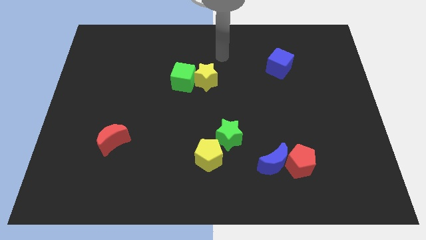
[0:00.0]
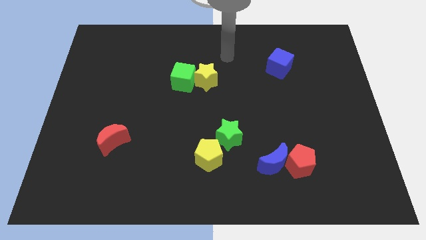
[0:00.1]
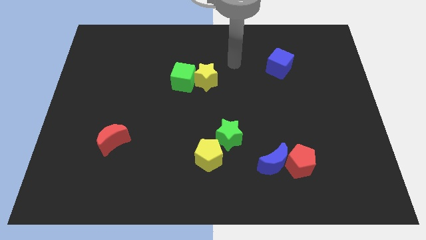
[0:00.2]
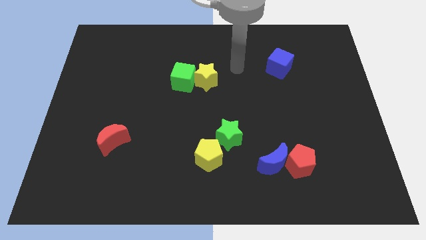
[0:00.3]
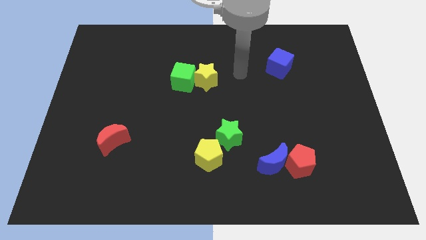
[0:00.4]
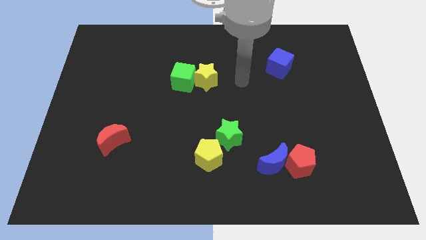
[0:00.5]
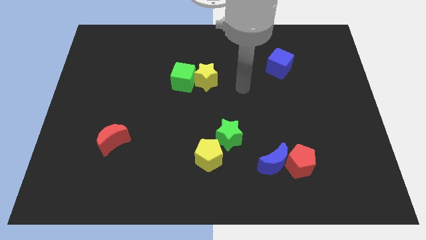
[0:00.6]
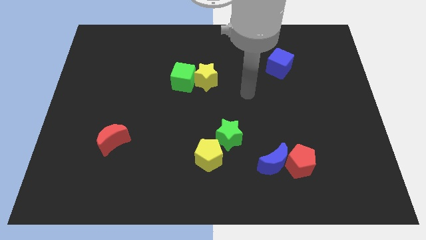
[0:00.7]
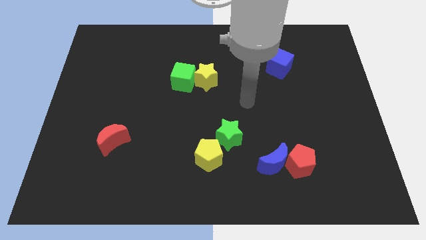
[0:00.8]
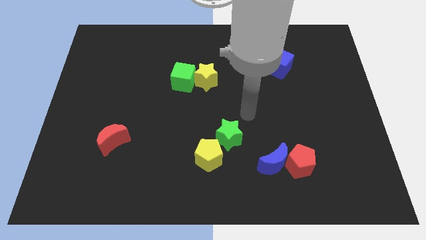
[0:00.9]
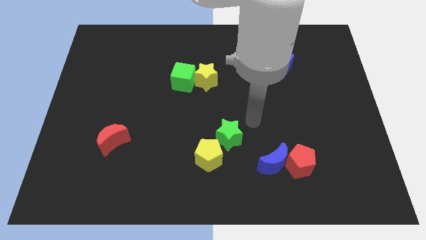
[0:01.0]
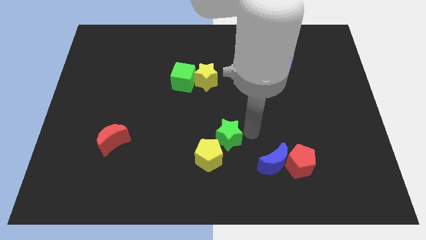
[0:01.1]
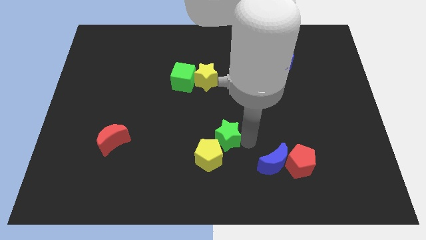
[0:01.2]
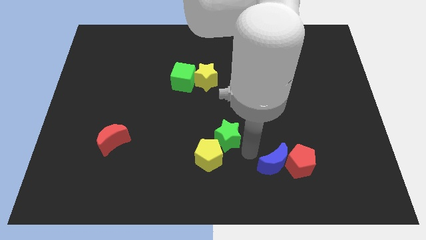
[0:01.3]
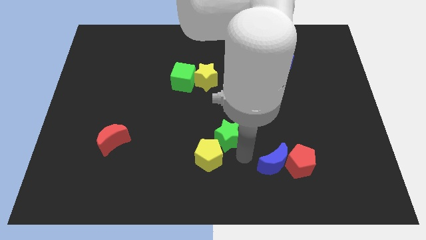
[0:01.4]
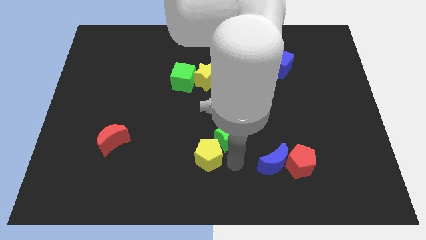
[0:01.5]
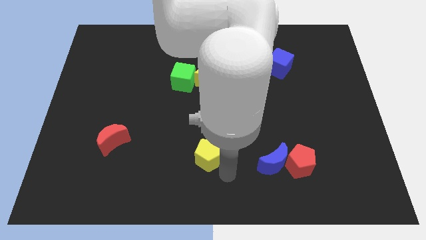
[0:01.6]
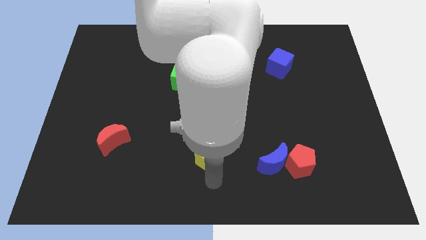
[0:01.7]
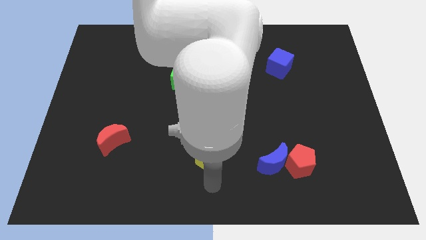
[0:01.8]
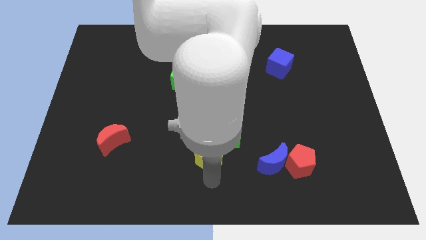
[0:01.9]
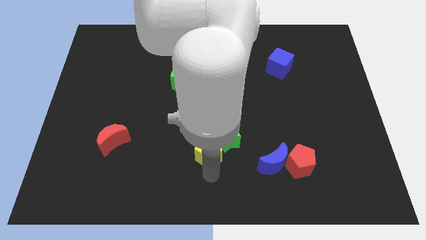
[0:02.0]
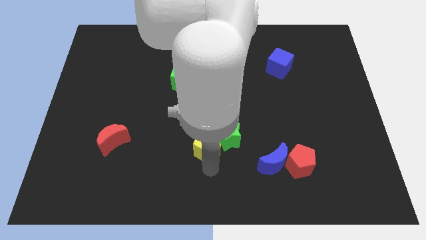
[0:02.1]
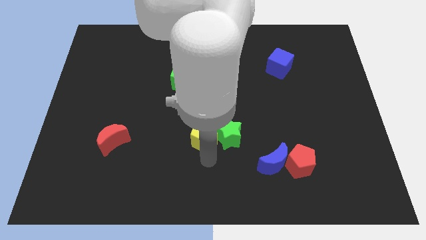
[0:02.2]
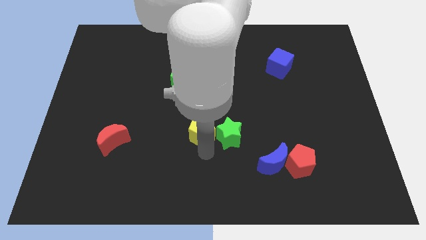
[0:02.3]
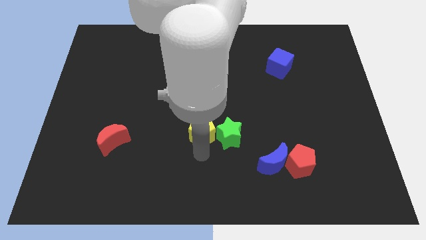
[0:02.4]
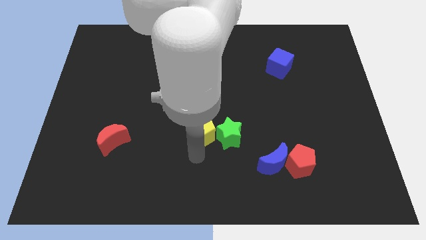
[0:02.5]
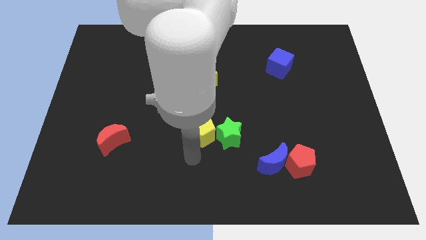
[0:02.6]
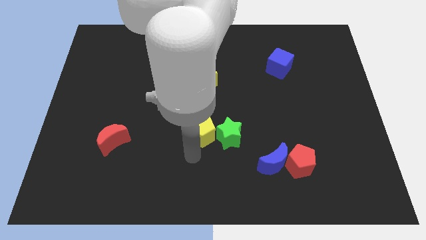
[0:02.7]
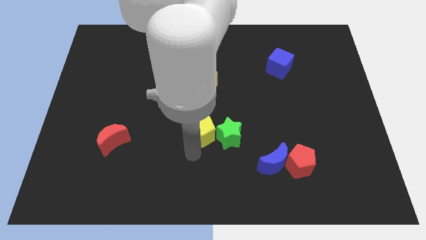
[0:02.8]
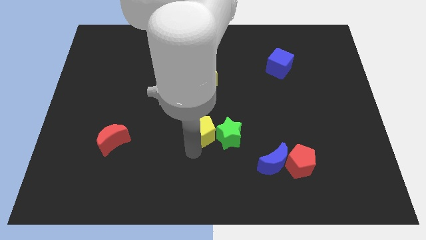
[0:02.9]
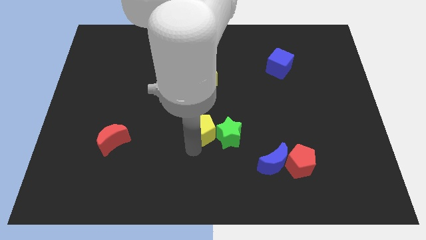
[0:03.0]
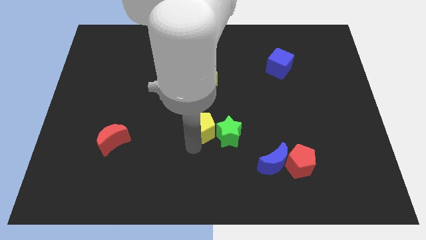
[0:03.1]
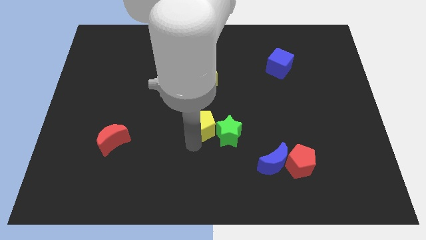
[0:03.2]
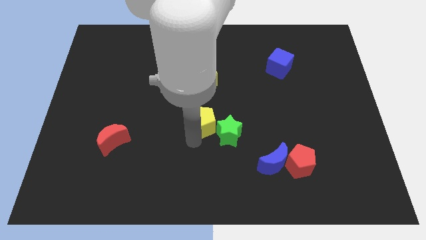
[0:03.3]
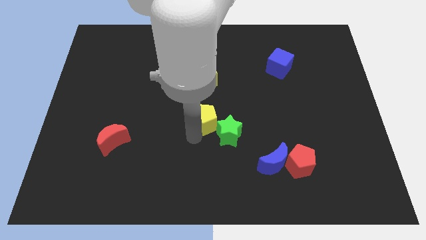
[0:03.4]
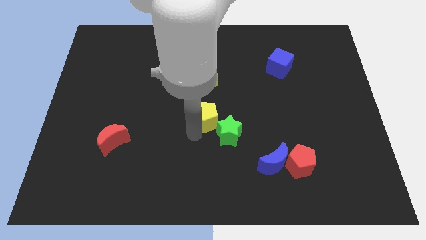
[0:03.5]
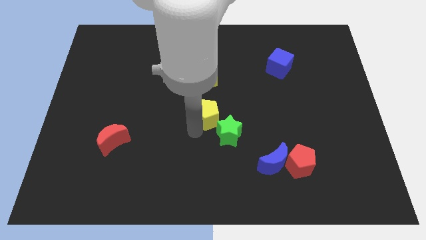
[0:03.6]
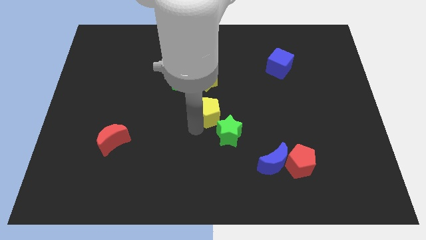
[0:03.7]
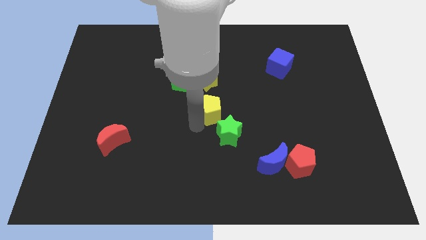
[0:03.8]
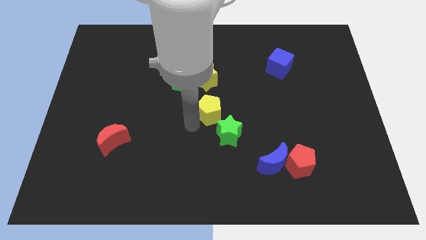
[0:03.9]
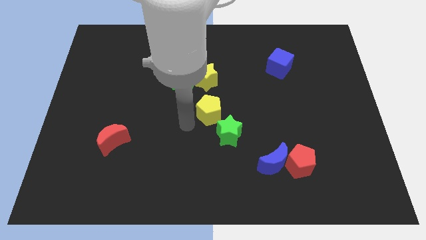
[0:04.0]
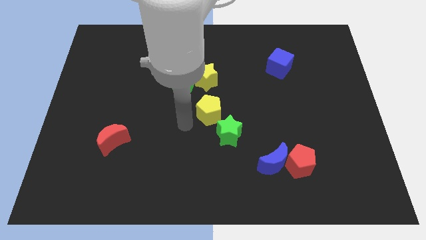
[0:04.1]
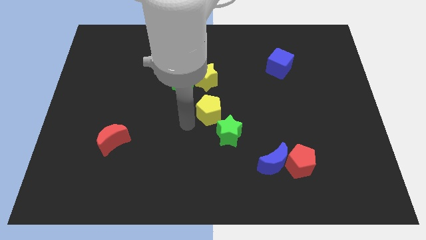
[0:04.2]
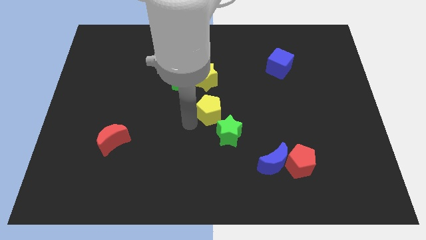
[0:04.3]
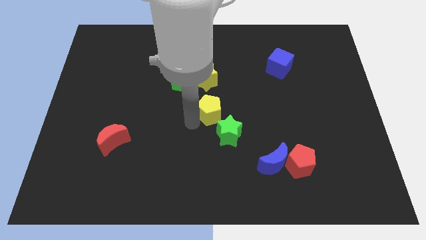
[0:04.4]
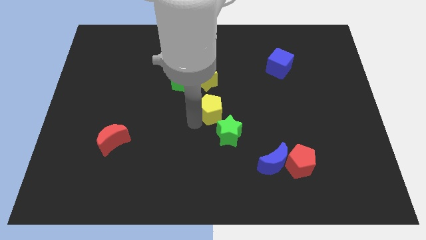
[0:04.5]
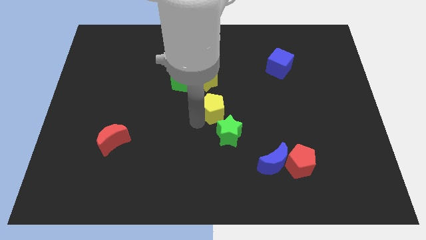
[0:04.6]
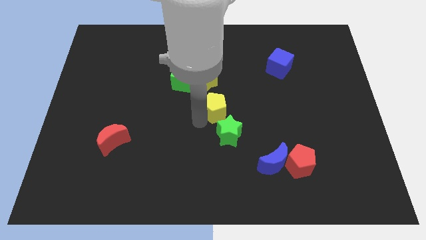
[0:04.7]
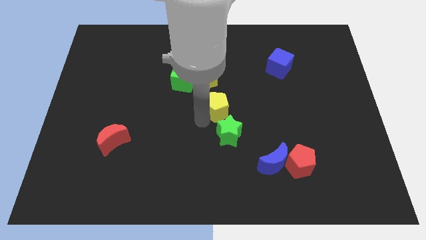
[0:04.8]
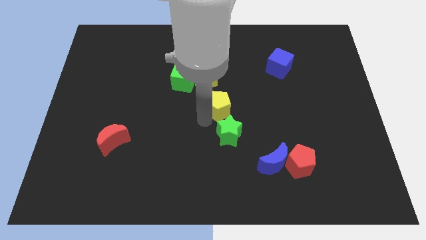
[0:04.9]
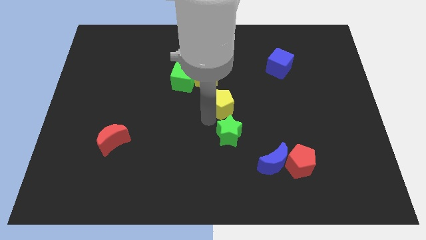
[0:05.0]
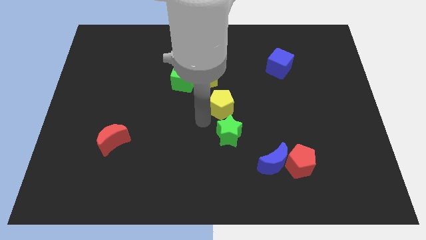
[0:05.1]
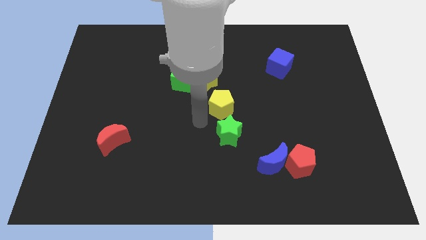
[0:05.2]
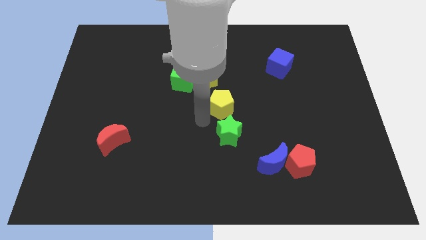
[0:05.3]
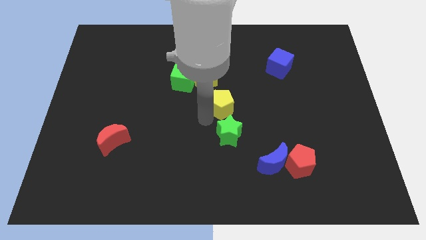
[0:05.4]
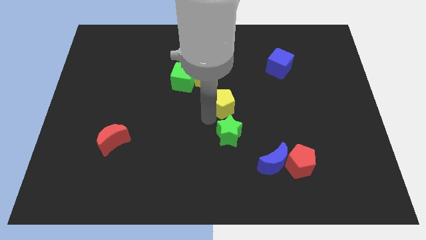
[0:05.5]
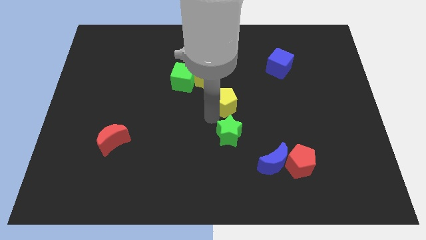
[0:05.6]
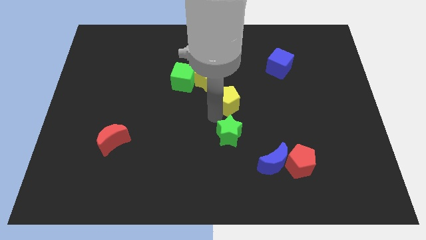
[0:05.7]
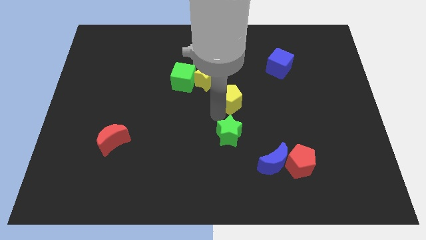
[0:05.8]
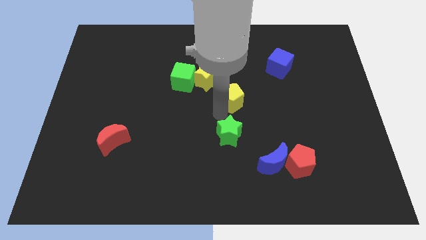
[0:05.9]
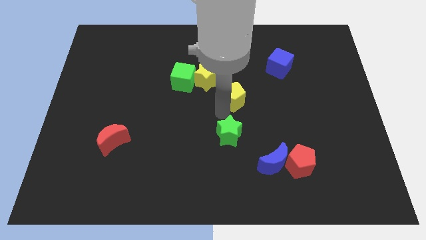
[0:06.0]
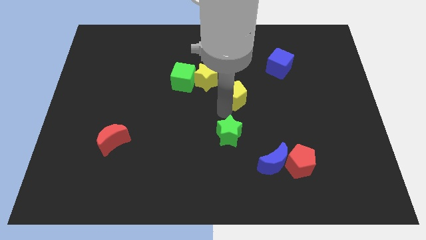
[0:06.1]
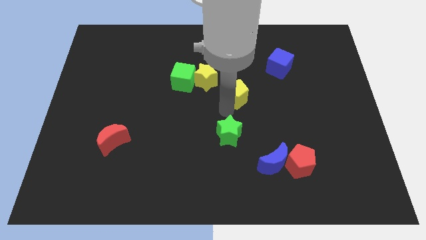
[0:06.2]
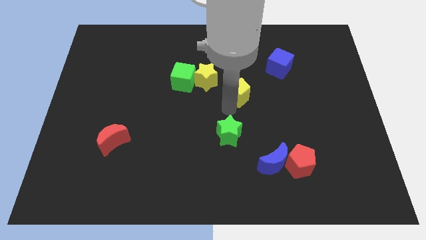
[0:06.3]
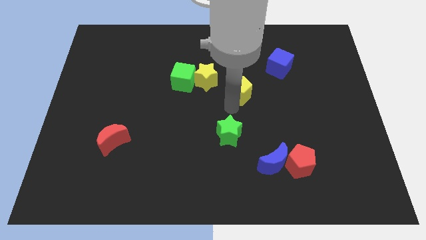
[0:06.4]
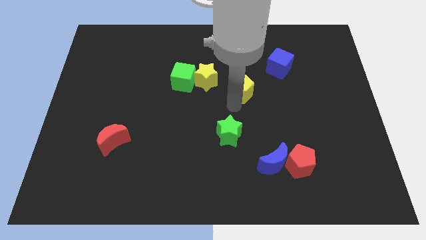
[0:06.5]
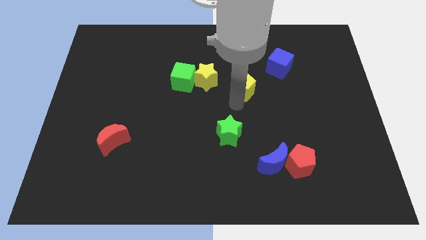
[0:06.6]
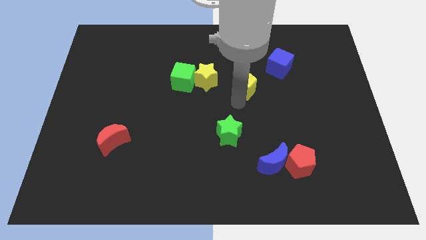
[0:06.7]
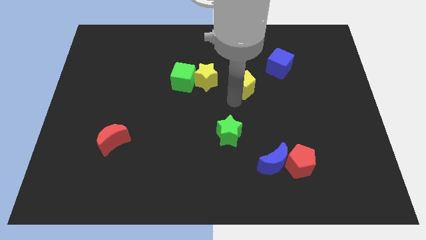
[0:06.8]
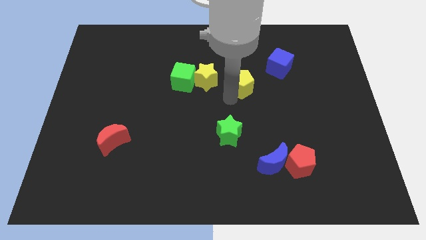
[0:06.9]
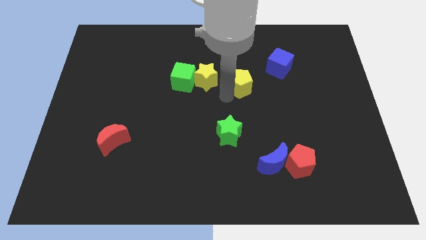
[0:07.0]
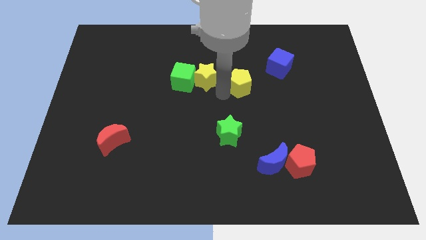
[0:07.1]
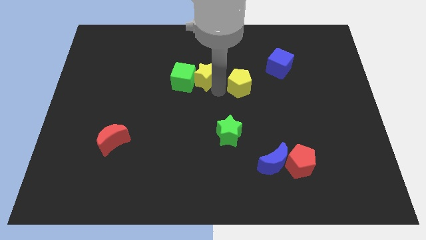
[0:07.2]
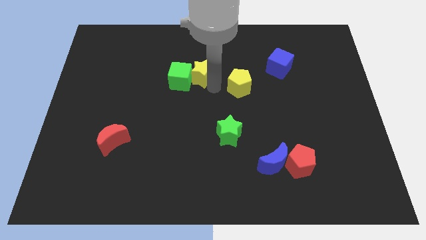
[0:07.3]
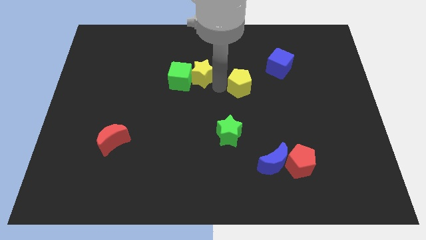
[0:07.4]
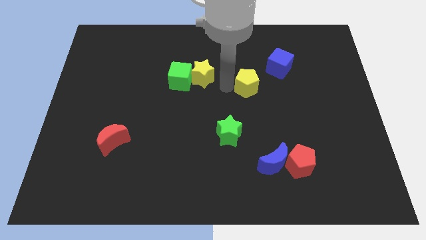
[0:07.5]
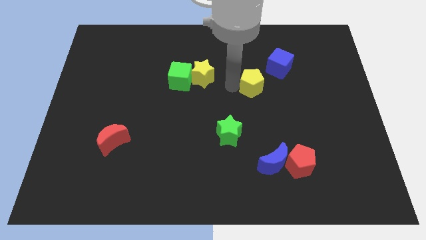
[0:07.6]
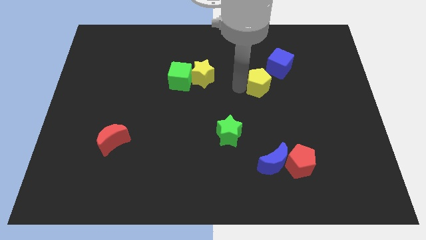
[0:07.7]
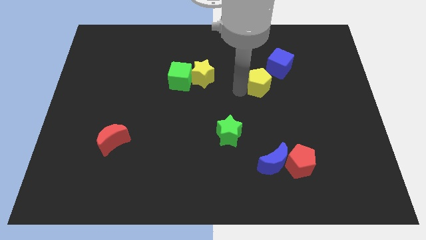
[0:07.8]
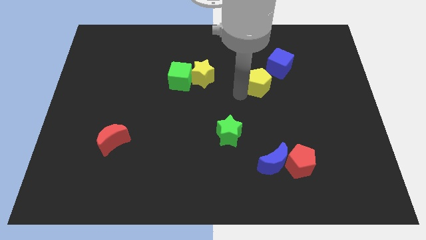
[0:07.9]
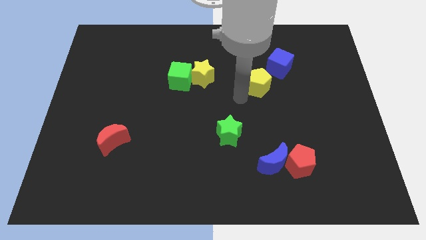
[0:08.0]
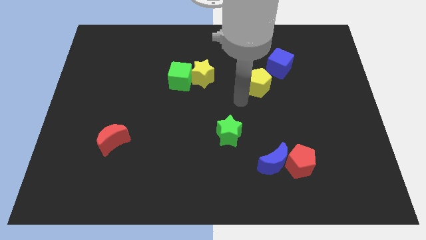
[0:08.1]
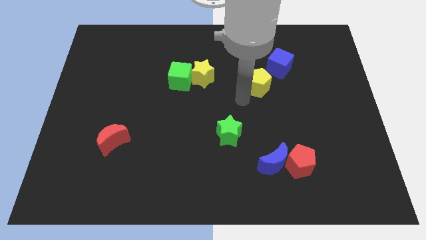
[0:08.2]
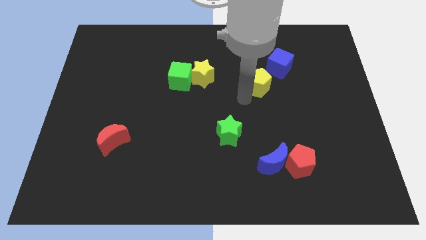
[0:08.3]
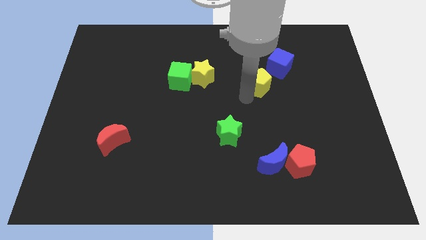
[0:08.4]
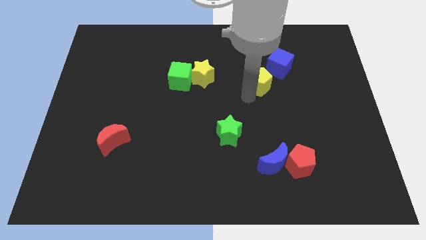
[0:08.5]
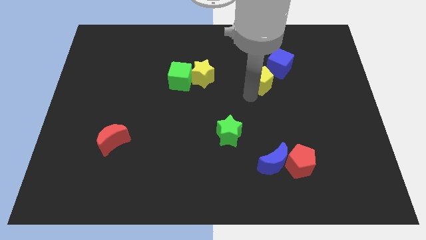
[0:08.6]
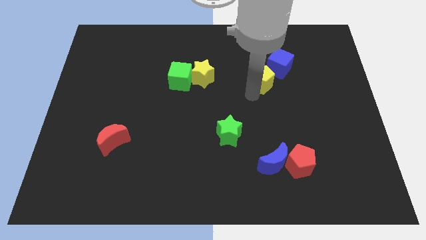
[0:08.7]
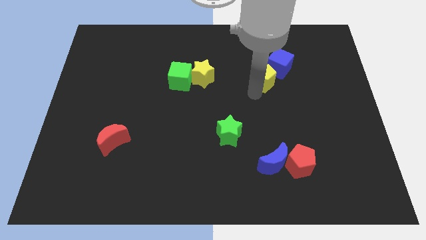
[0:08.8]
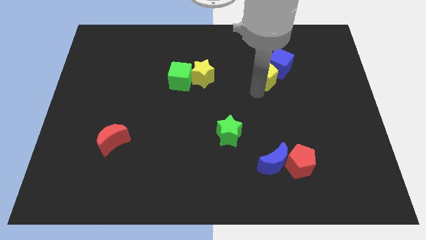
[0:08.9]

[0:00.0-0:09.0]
move the yellow pentagon next to the blue cube
